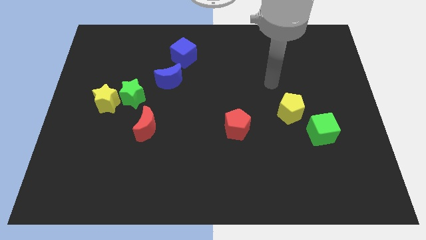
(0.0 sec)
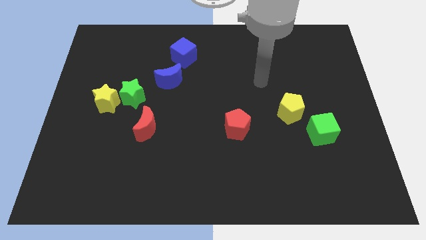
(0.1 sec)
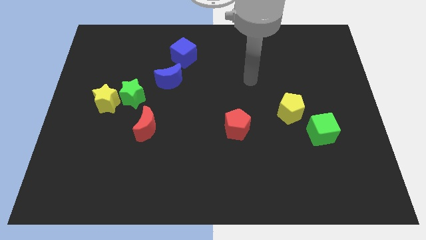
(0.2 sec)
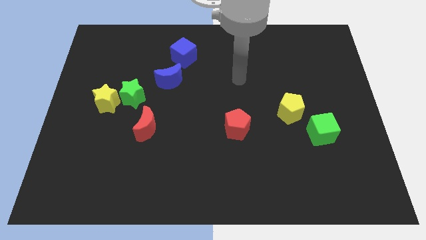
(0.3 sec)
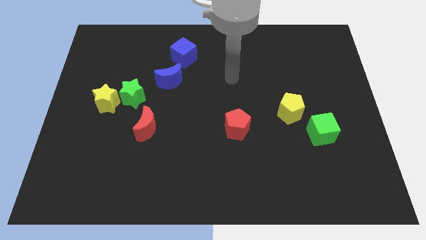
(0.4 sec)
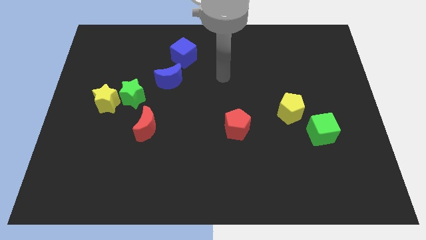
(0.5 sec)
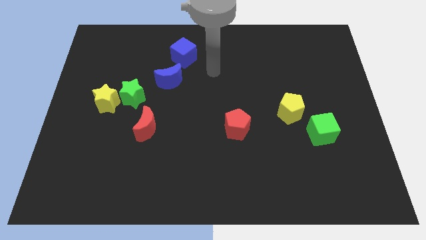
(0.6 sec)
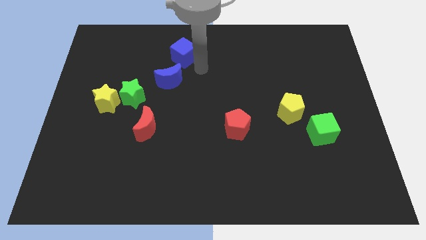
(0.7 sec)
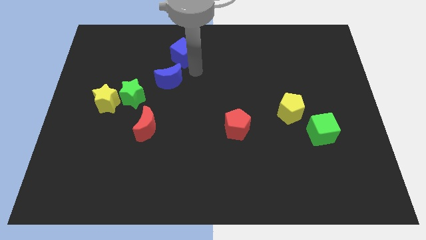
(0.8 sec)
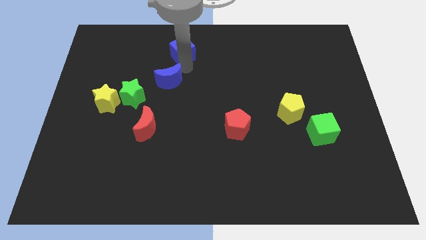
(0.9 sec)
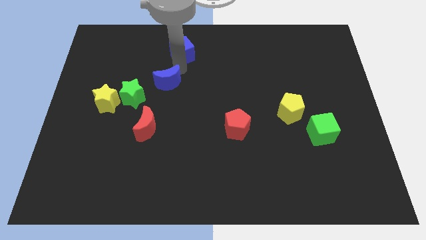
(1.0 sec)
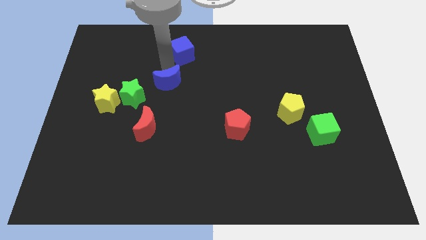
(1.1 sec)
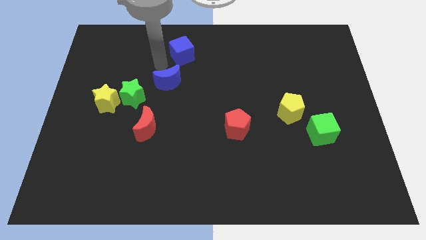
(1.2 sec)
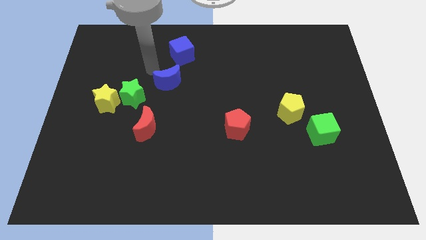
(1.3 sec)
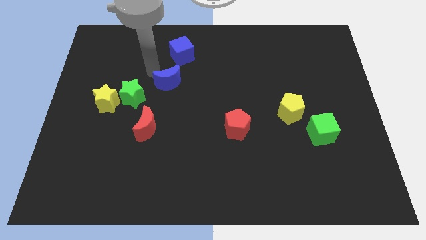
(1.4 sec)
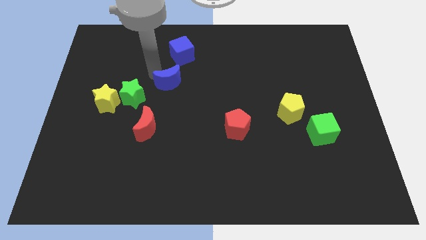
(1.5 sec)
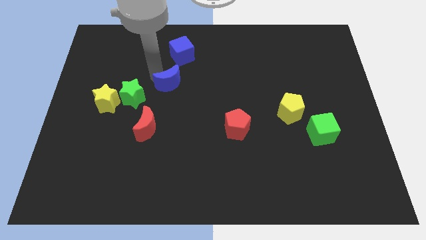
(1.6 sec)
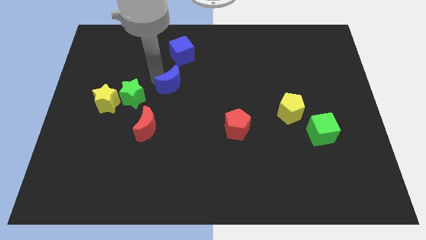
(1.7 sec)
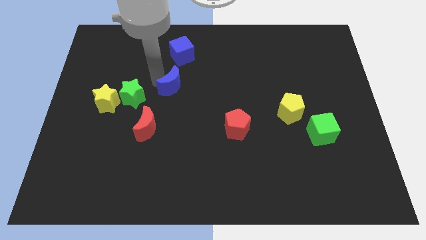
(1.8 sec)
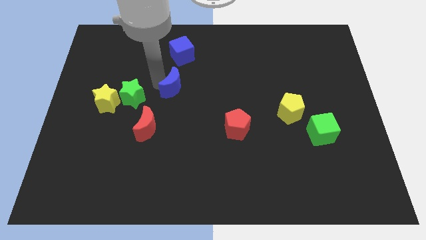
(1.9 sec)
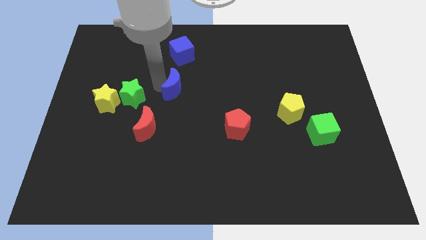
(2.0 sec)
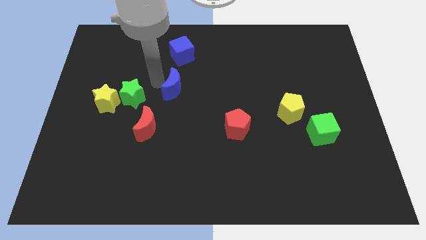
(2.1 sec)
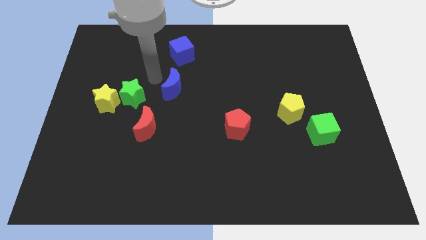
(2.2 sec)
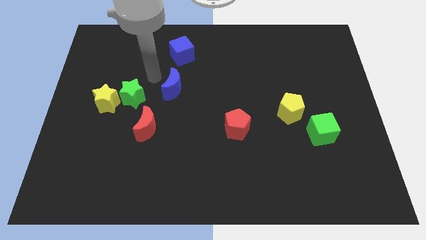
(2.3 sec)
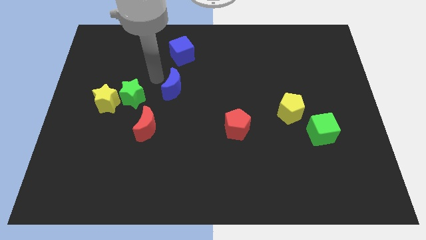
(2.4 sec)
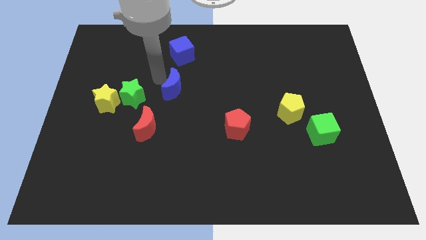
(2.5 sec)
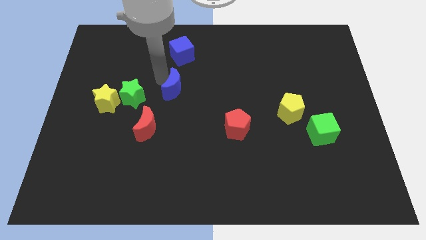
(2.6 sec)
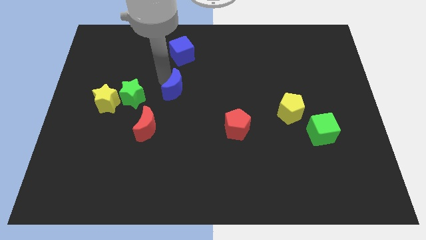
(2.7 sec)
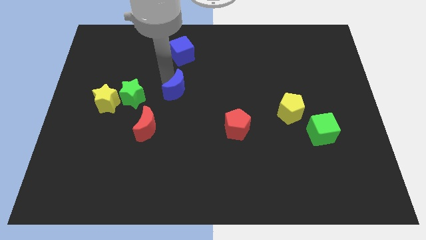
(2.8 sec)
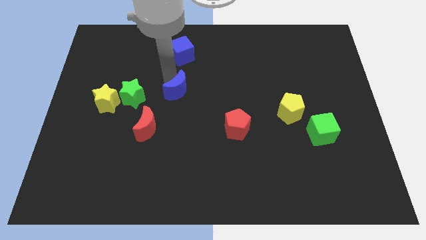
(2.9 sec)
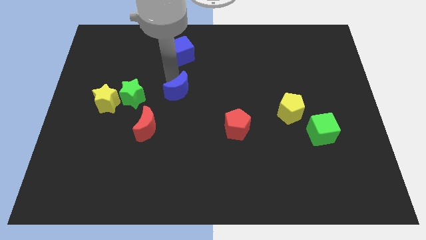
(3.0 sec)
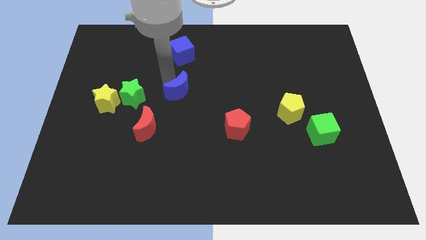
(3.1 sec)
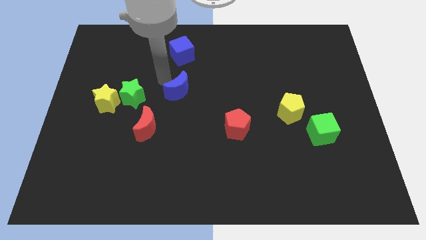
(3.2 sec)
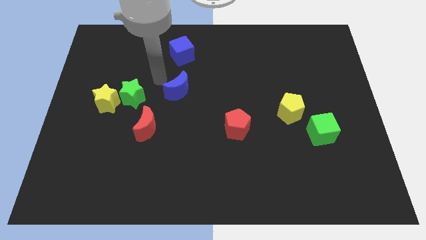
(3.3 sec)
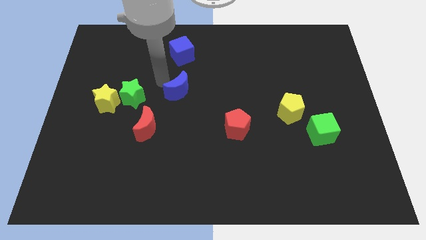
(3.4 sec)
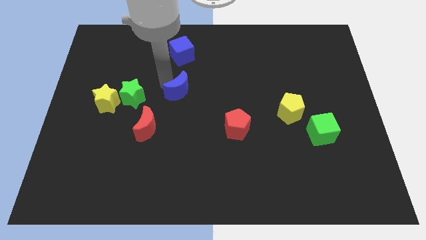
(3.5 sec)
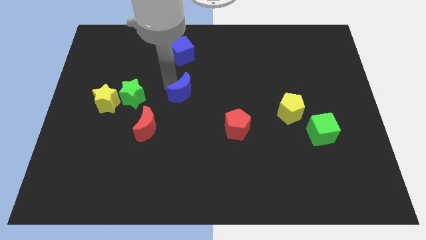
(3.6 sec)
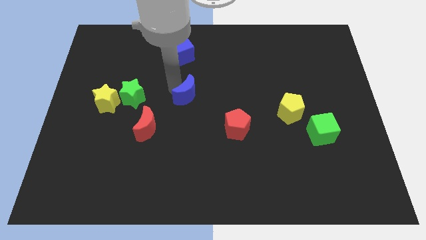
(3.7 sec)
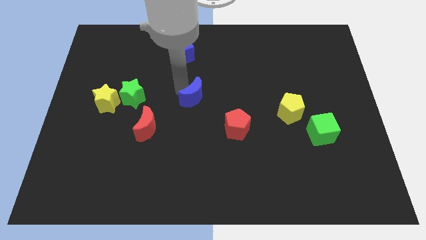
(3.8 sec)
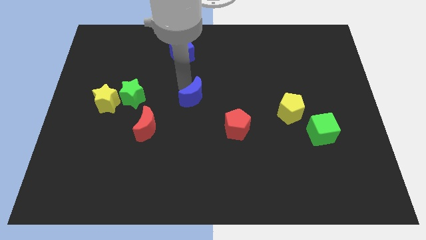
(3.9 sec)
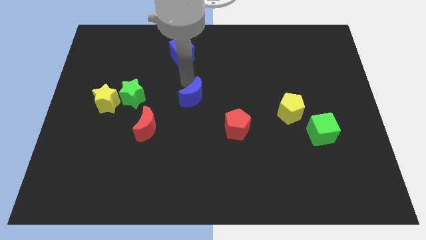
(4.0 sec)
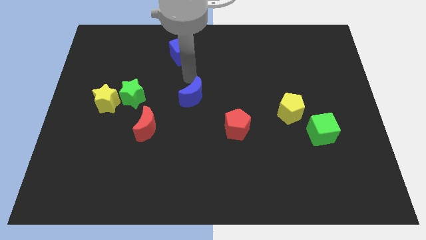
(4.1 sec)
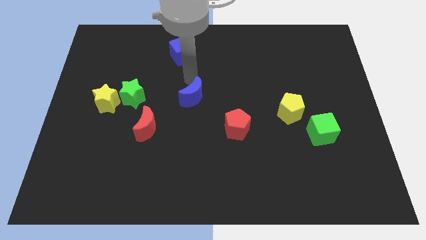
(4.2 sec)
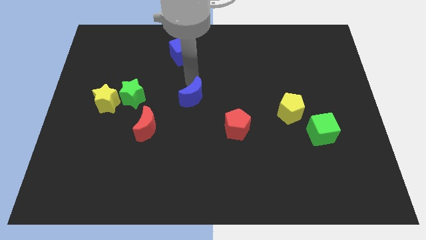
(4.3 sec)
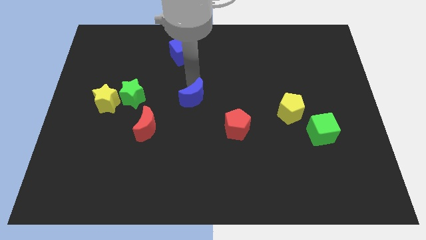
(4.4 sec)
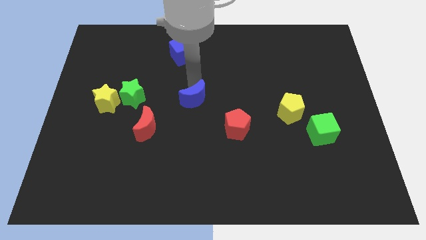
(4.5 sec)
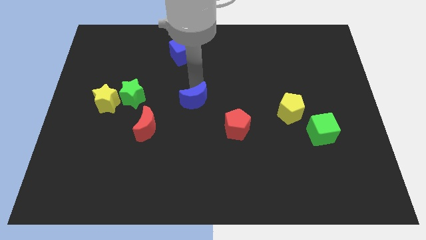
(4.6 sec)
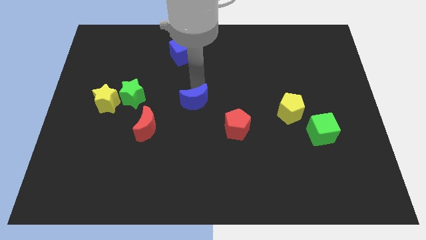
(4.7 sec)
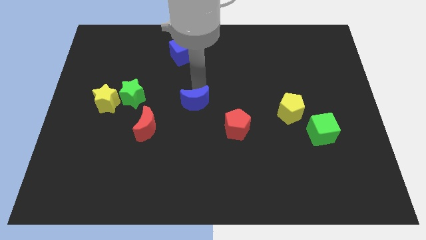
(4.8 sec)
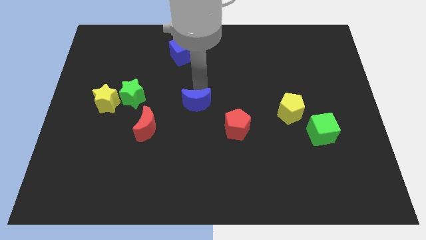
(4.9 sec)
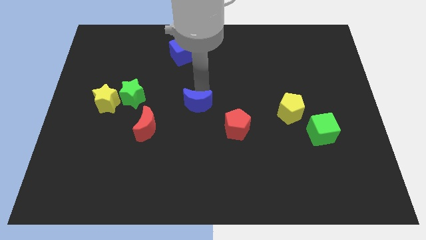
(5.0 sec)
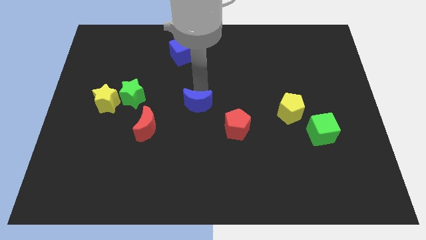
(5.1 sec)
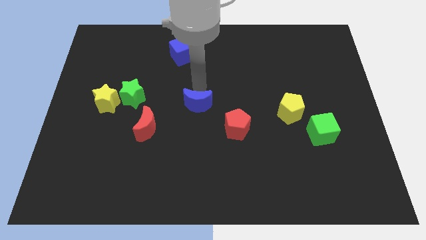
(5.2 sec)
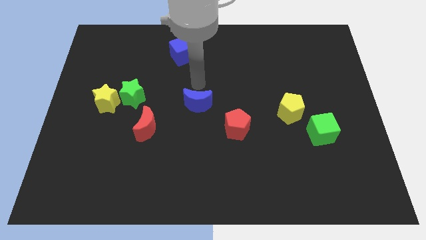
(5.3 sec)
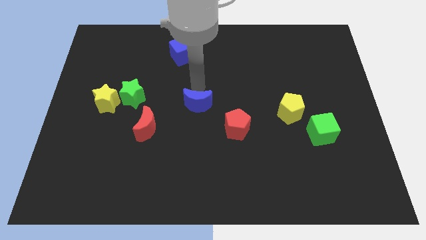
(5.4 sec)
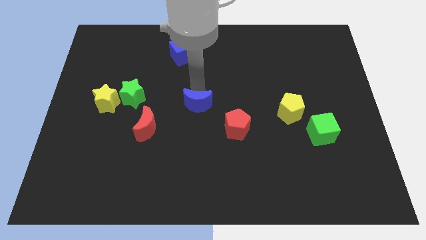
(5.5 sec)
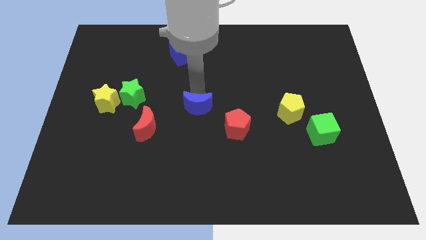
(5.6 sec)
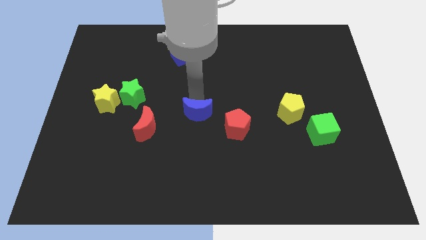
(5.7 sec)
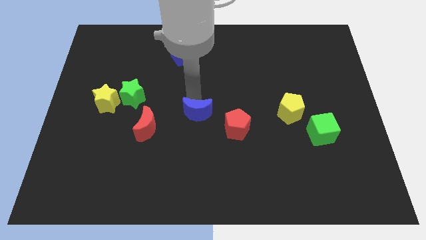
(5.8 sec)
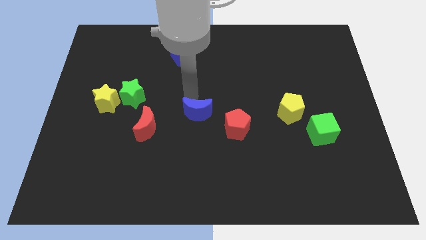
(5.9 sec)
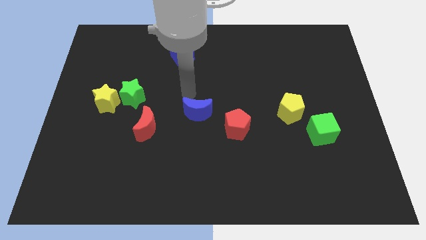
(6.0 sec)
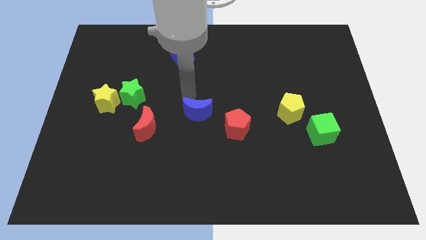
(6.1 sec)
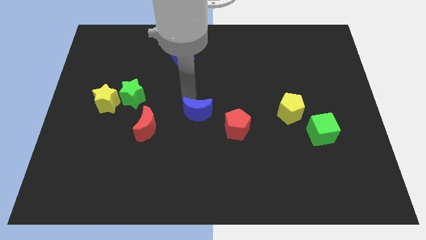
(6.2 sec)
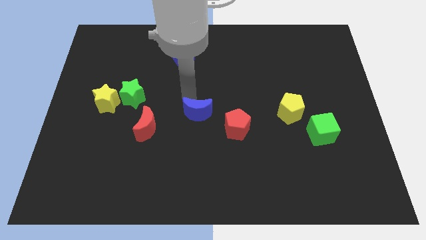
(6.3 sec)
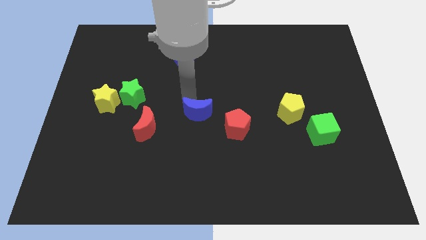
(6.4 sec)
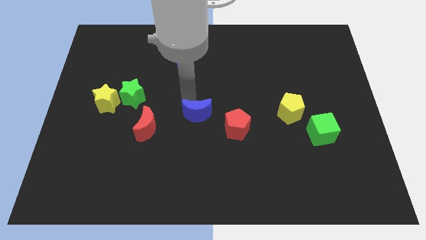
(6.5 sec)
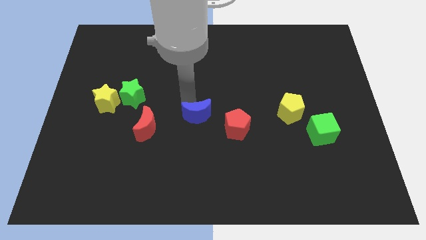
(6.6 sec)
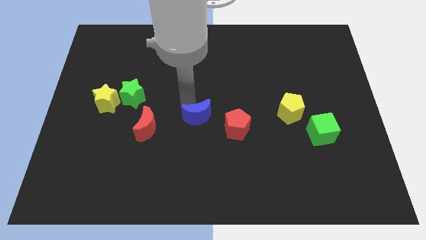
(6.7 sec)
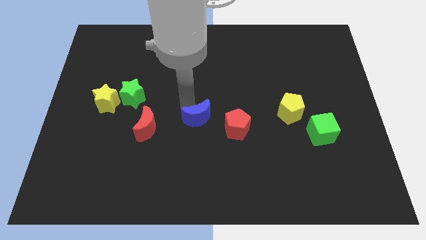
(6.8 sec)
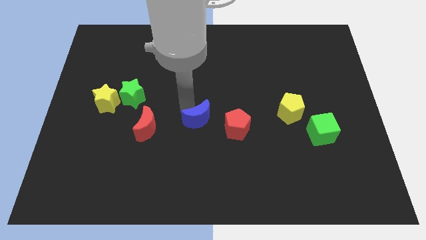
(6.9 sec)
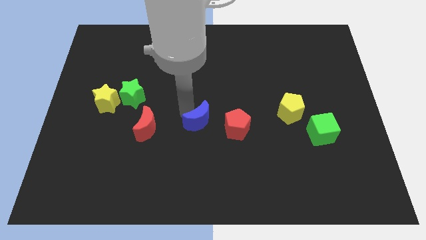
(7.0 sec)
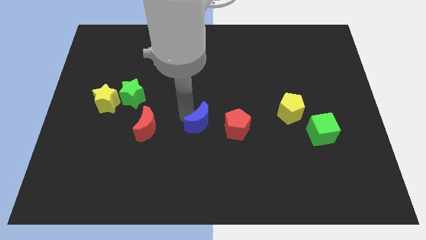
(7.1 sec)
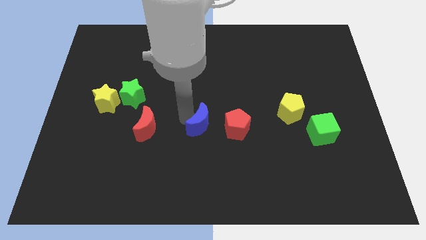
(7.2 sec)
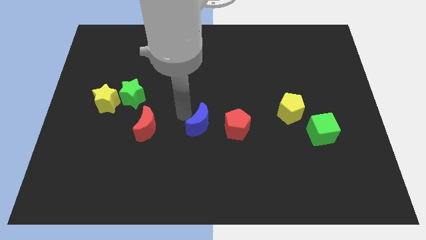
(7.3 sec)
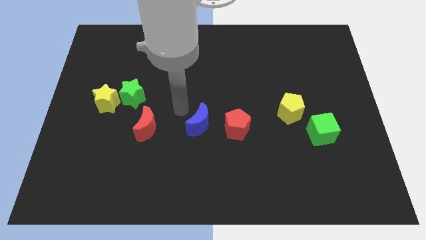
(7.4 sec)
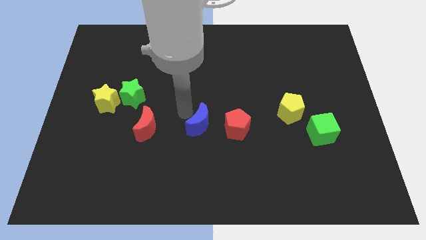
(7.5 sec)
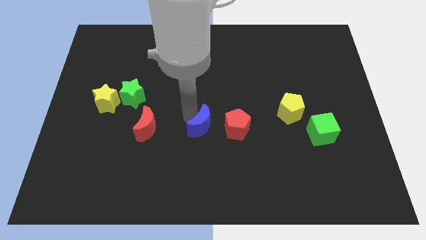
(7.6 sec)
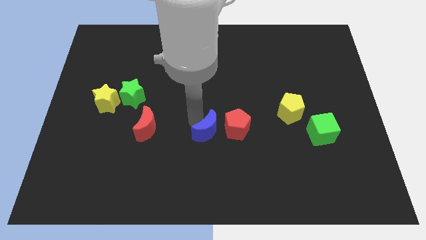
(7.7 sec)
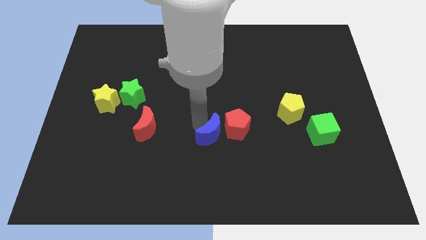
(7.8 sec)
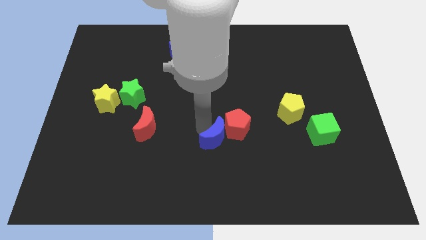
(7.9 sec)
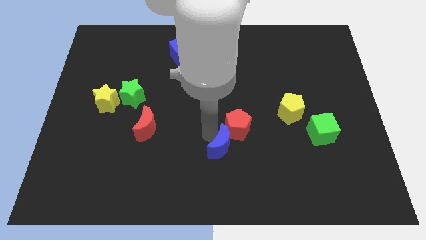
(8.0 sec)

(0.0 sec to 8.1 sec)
push the blue moon diagonally downwards and to the right
